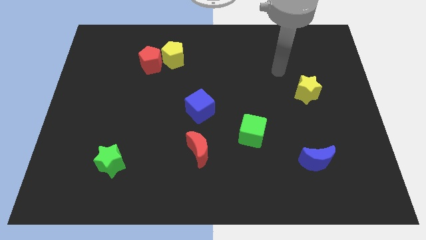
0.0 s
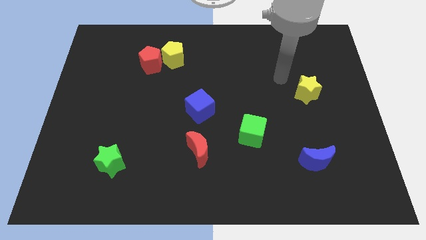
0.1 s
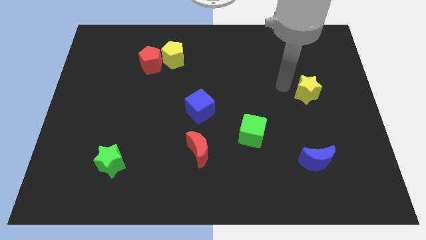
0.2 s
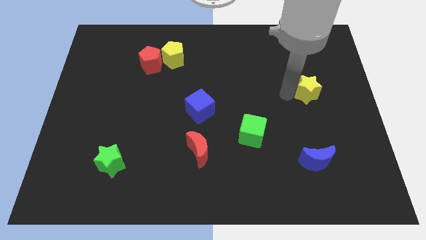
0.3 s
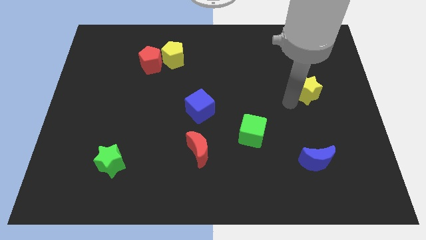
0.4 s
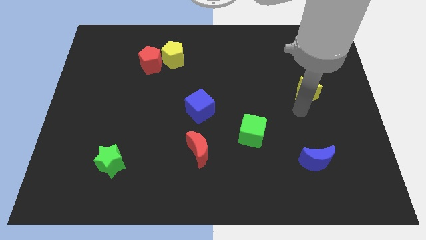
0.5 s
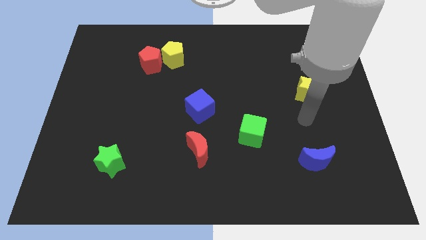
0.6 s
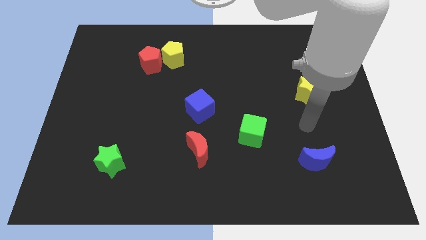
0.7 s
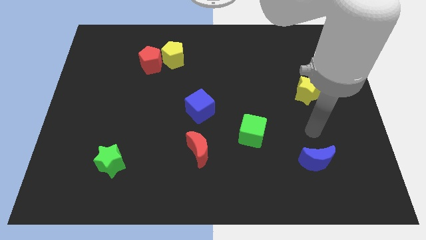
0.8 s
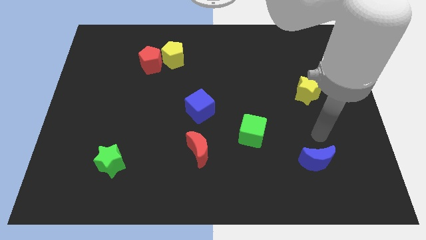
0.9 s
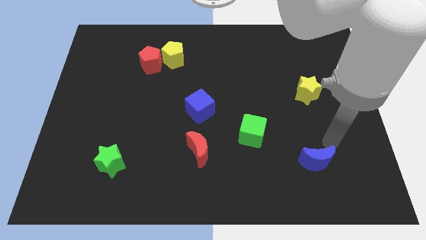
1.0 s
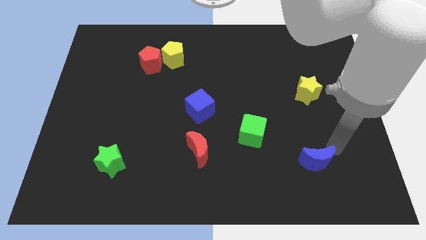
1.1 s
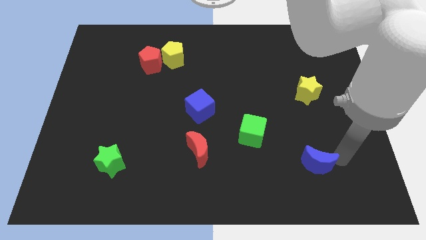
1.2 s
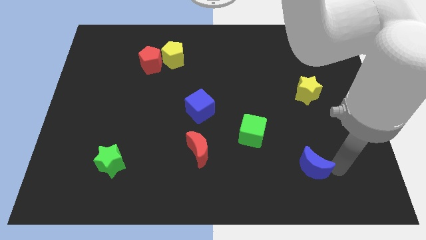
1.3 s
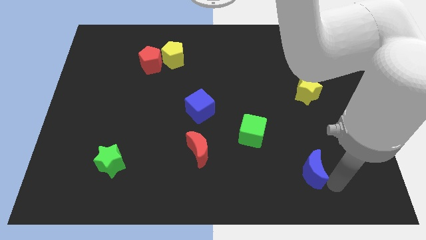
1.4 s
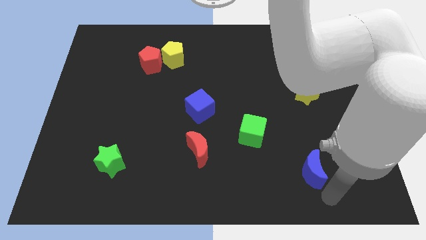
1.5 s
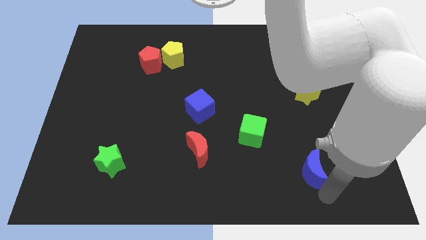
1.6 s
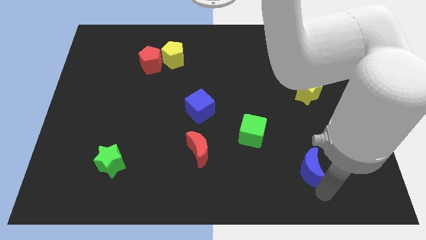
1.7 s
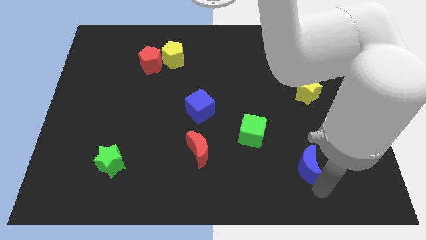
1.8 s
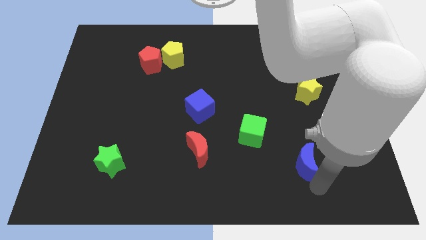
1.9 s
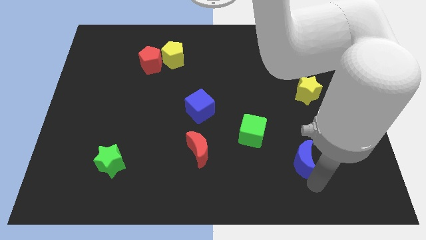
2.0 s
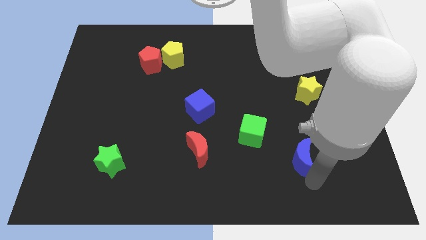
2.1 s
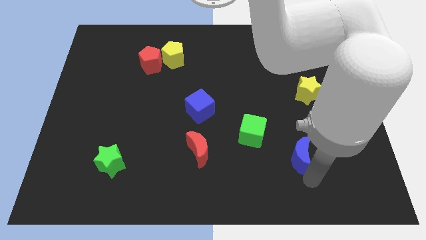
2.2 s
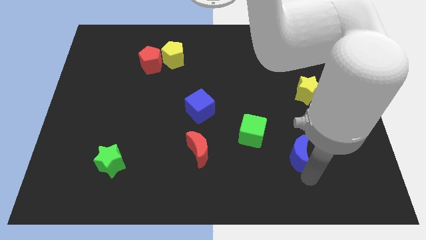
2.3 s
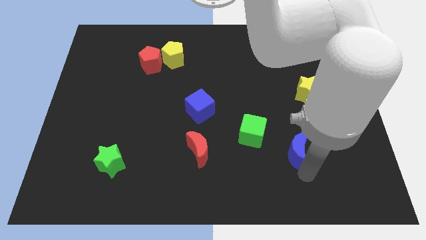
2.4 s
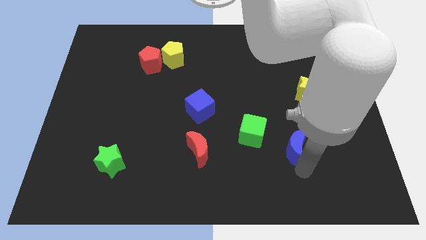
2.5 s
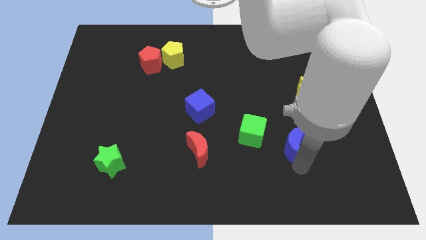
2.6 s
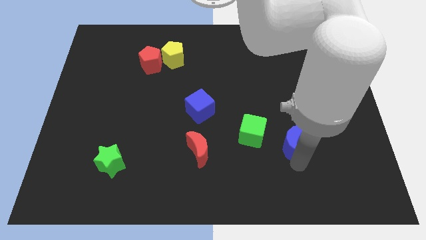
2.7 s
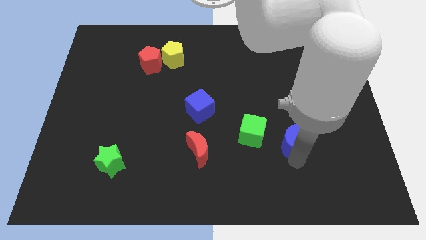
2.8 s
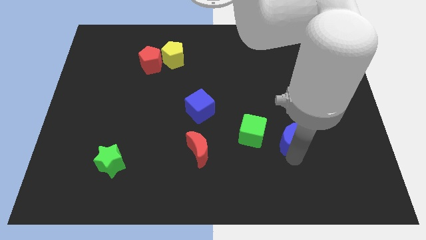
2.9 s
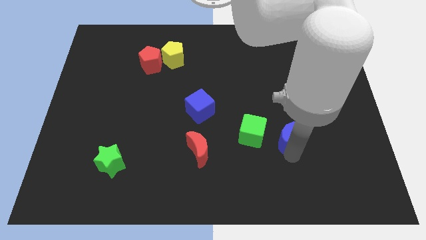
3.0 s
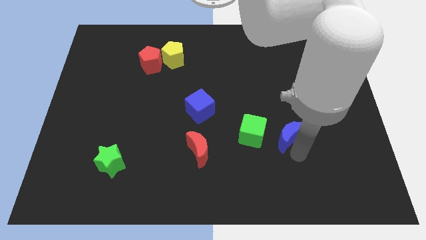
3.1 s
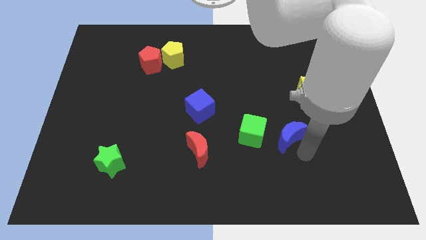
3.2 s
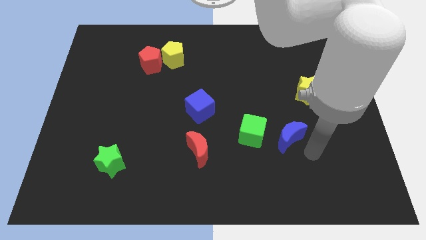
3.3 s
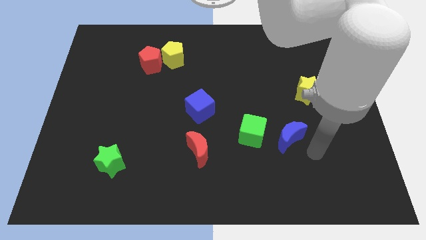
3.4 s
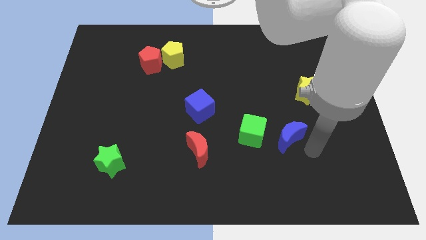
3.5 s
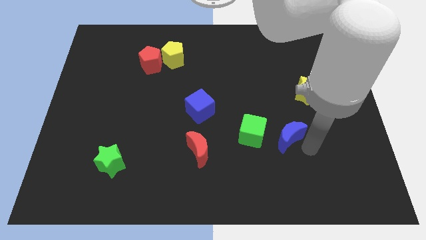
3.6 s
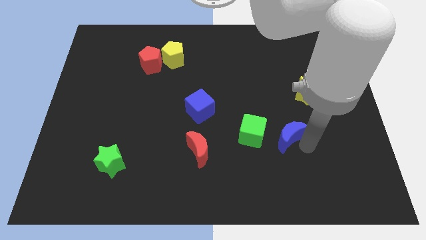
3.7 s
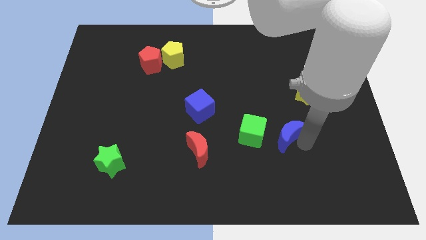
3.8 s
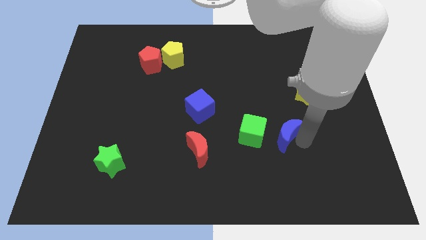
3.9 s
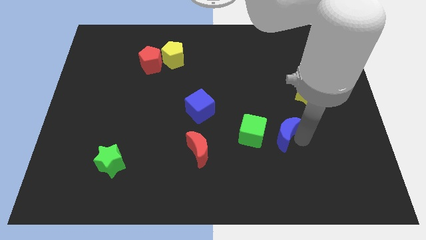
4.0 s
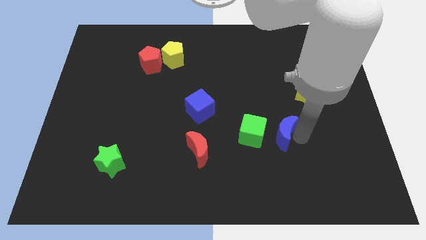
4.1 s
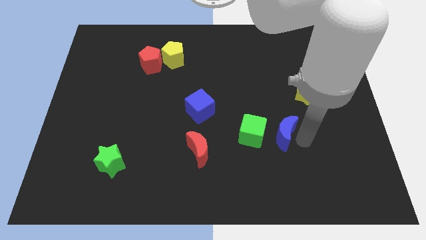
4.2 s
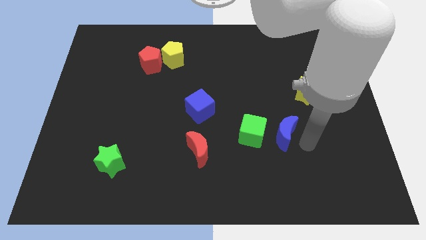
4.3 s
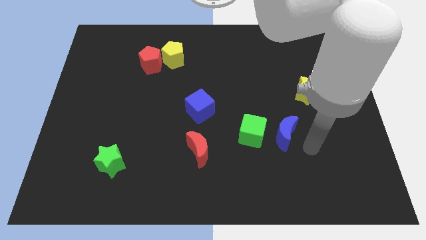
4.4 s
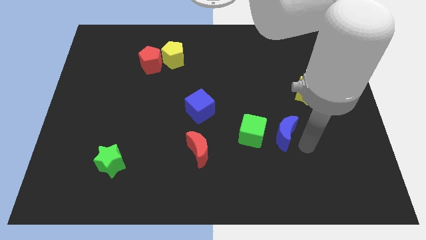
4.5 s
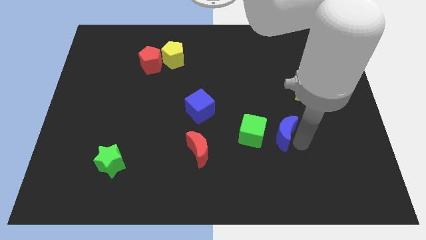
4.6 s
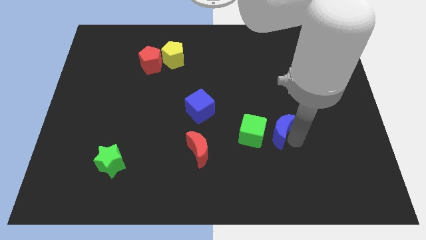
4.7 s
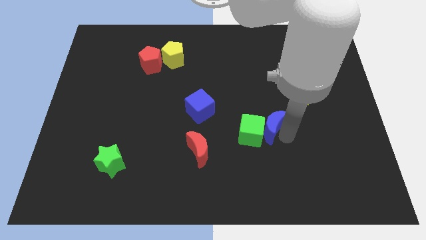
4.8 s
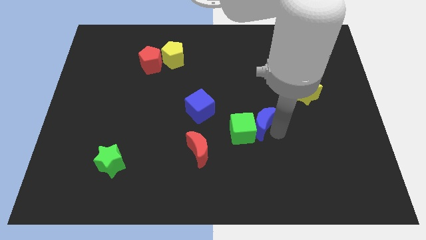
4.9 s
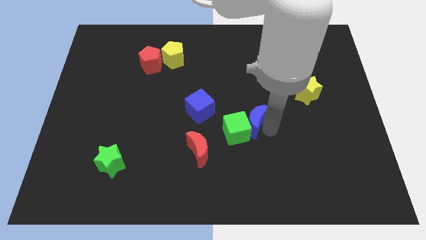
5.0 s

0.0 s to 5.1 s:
slide the blue moon to the right side of the blue cube

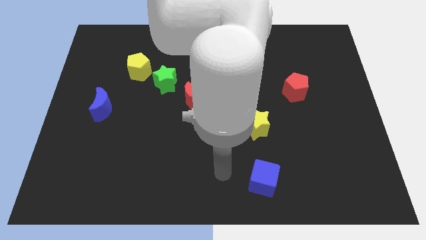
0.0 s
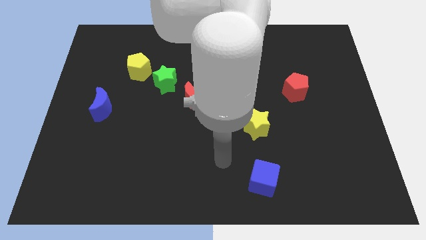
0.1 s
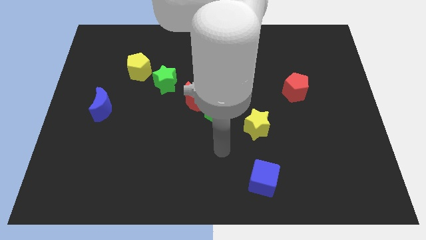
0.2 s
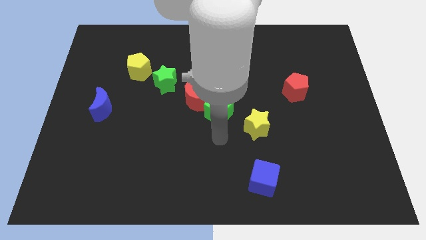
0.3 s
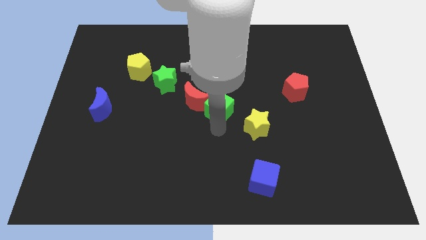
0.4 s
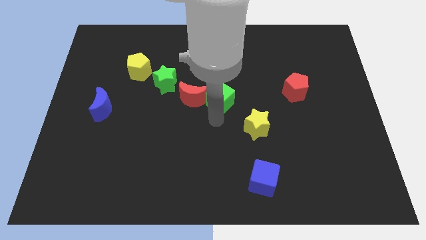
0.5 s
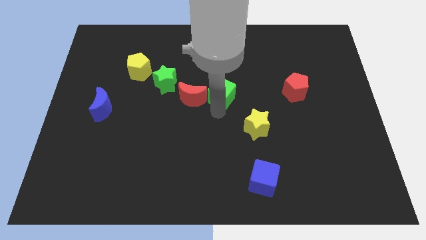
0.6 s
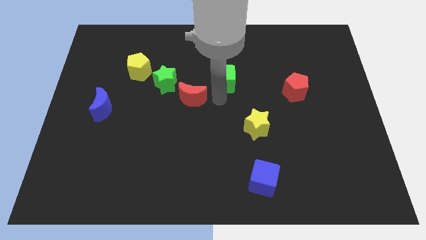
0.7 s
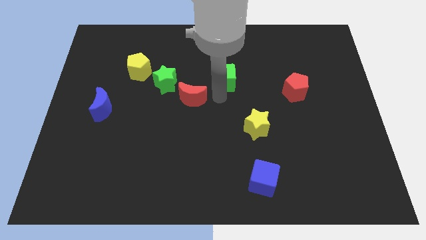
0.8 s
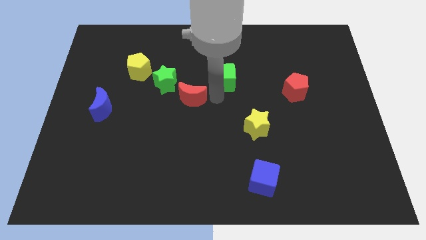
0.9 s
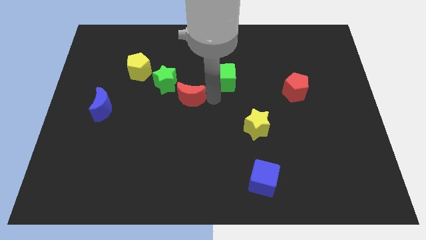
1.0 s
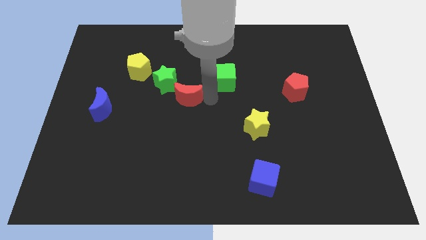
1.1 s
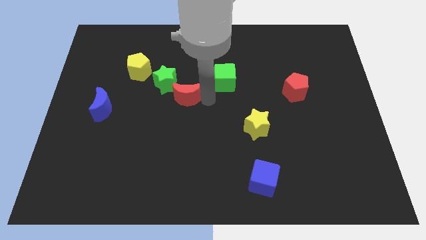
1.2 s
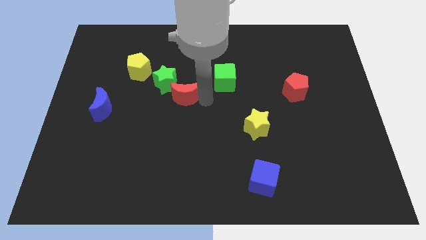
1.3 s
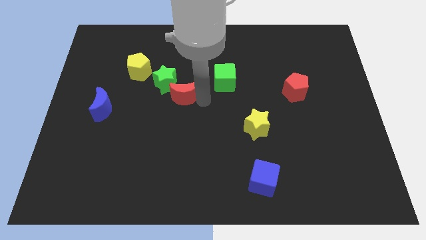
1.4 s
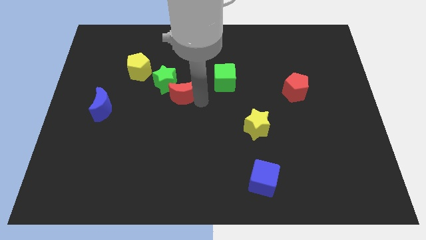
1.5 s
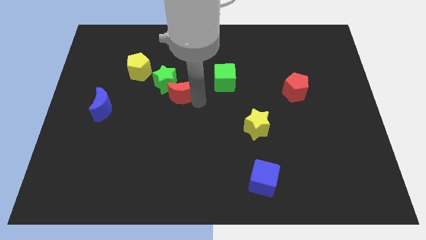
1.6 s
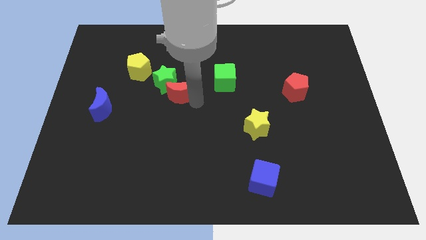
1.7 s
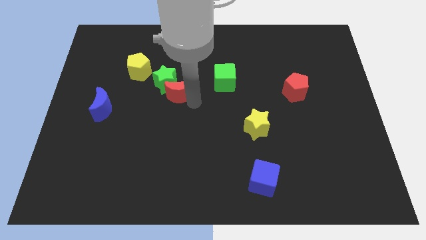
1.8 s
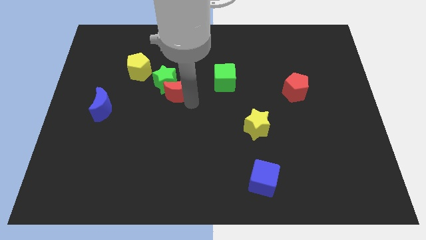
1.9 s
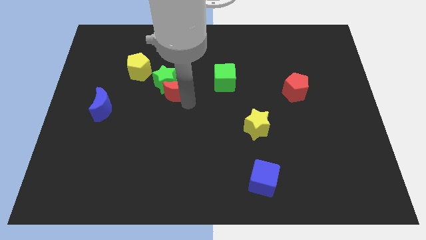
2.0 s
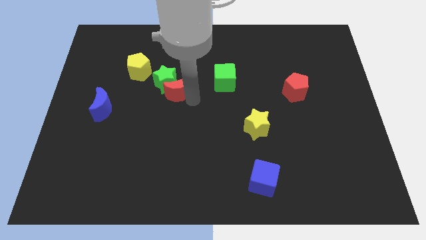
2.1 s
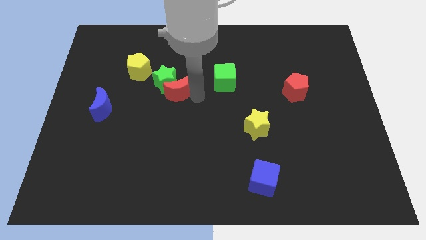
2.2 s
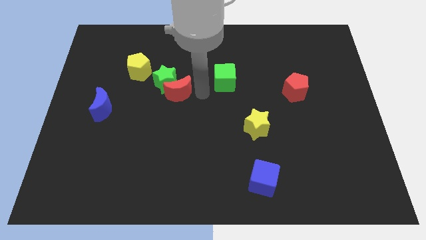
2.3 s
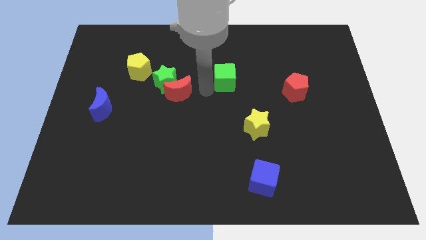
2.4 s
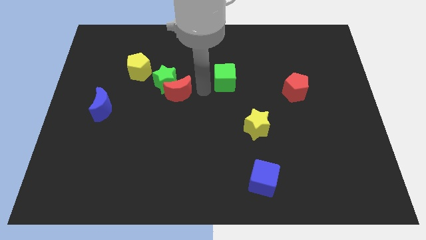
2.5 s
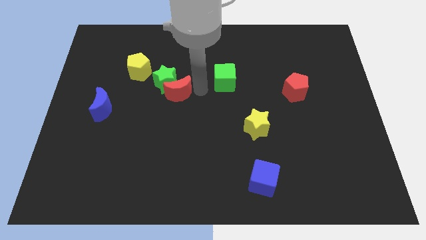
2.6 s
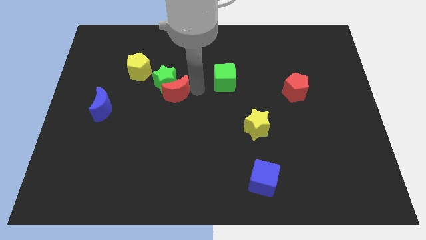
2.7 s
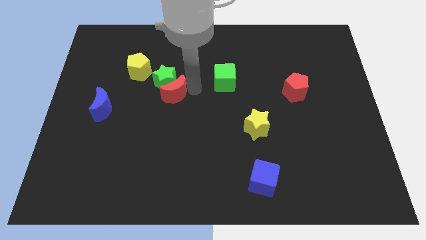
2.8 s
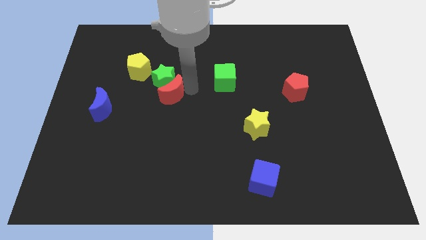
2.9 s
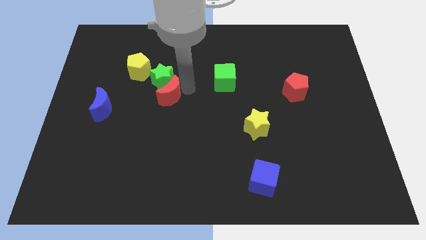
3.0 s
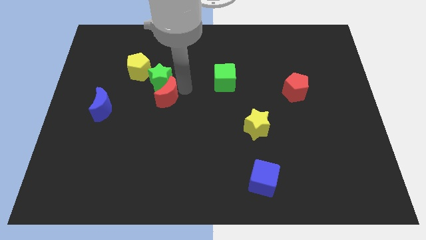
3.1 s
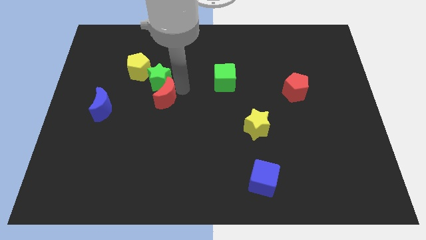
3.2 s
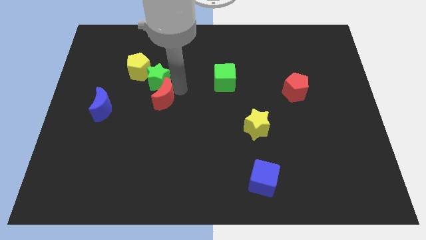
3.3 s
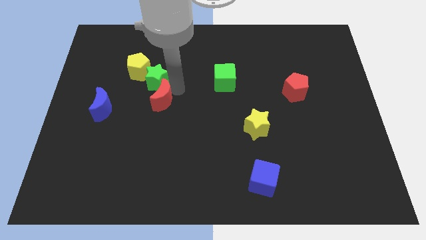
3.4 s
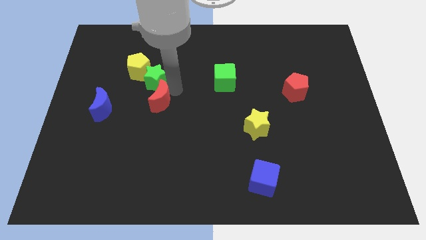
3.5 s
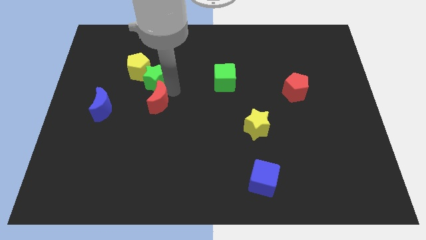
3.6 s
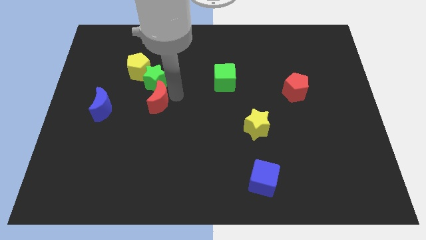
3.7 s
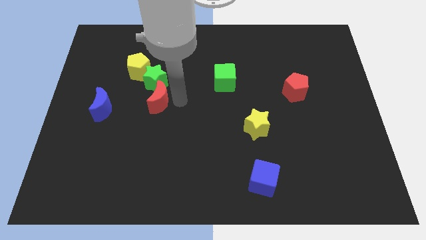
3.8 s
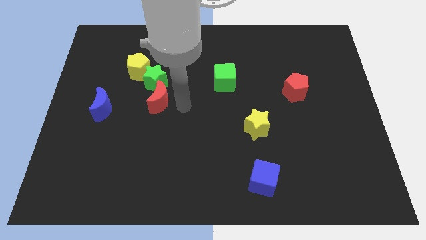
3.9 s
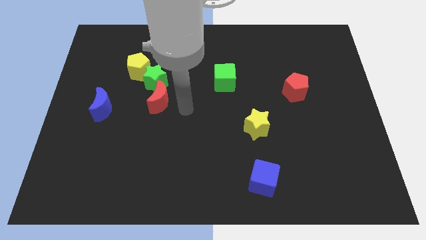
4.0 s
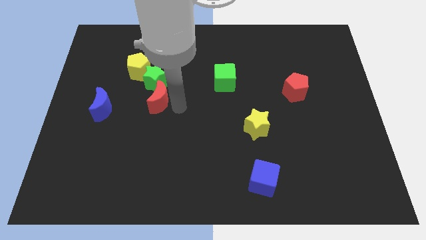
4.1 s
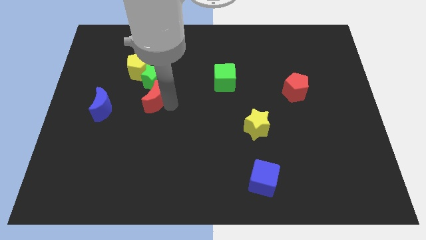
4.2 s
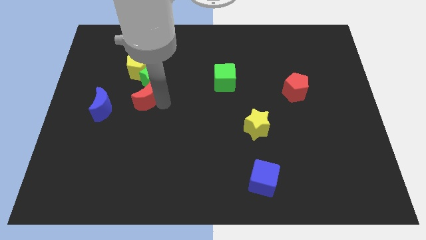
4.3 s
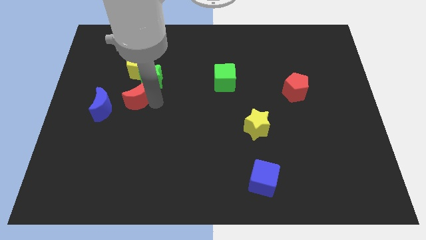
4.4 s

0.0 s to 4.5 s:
put the red moon to the top right of the blue moon
